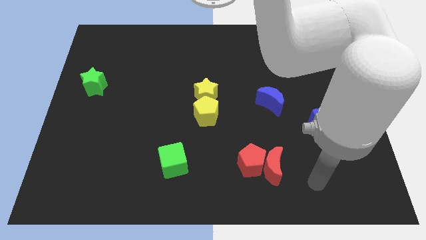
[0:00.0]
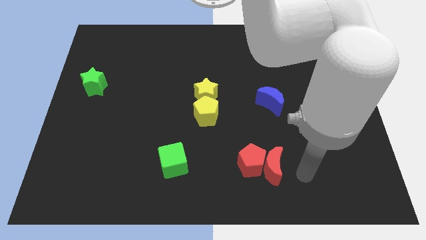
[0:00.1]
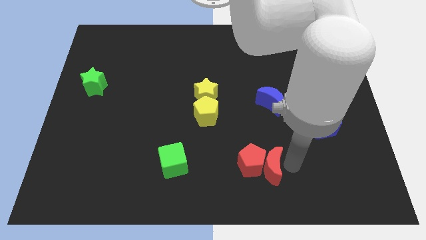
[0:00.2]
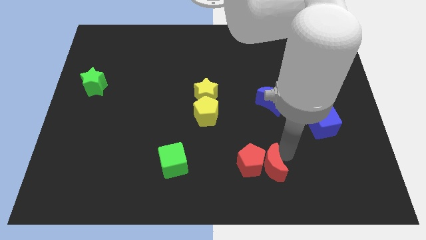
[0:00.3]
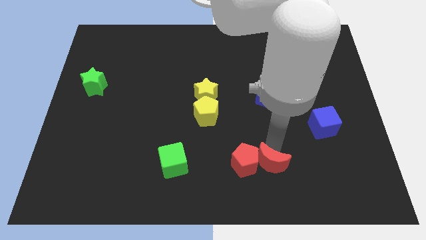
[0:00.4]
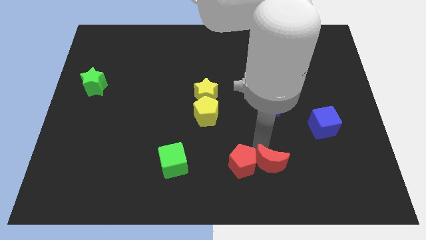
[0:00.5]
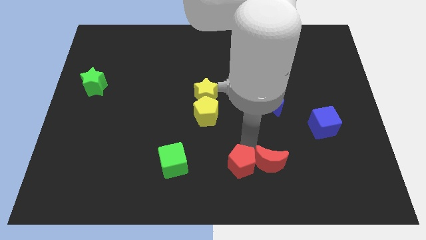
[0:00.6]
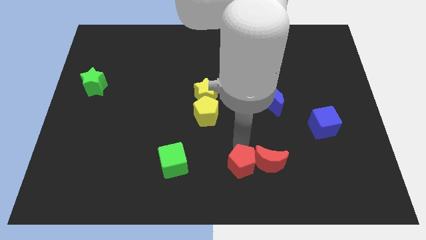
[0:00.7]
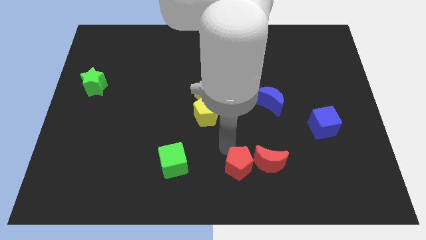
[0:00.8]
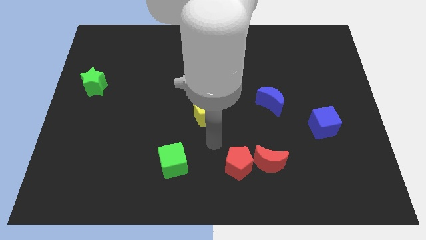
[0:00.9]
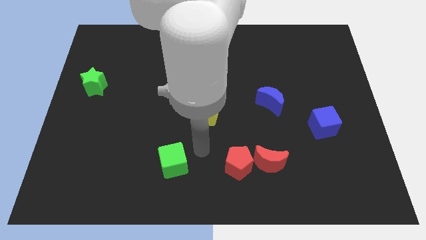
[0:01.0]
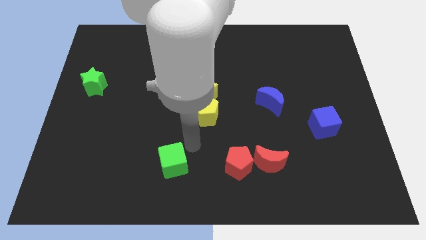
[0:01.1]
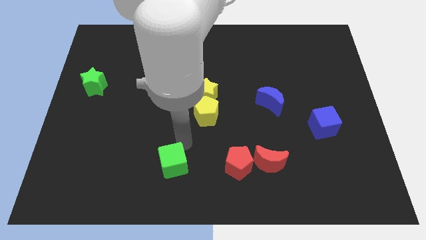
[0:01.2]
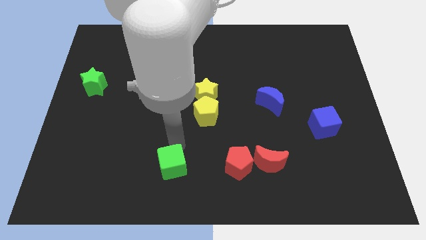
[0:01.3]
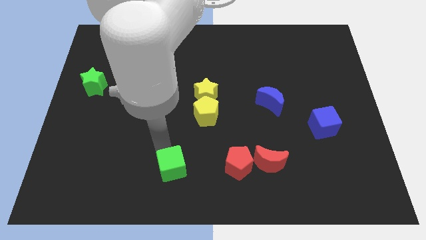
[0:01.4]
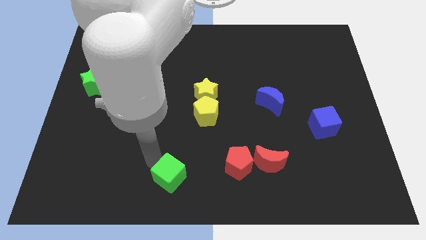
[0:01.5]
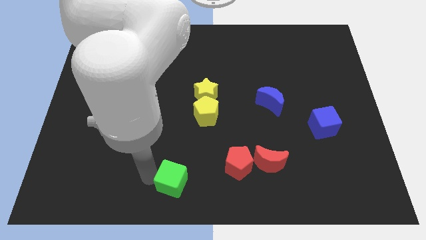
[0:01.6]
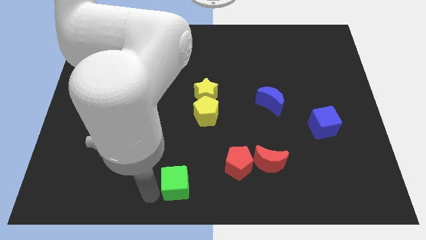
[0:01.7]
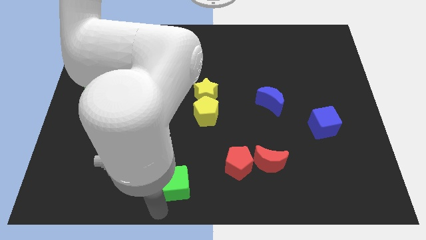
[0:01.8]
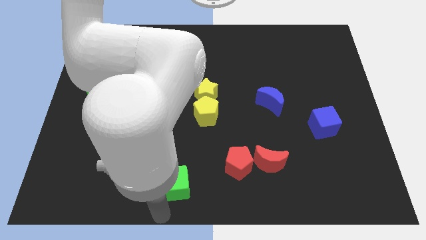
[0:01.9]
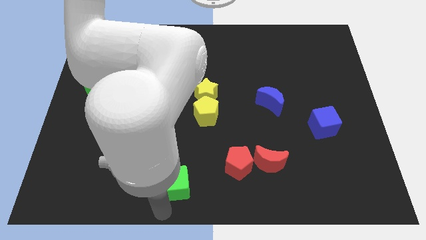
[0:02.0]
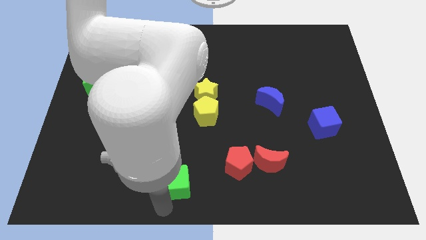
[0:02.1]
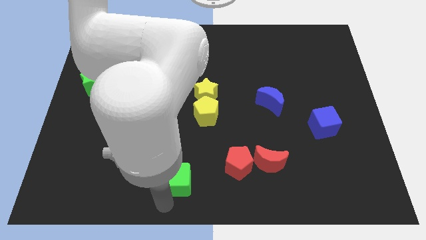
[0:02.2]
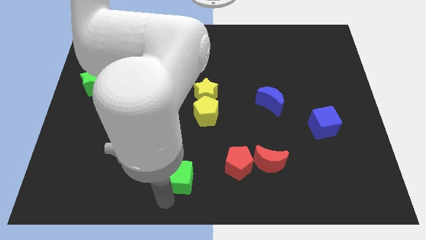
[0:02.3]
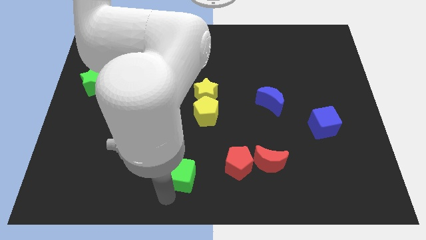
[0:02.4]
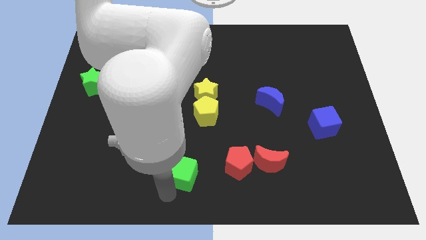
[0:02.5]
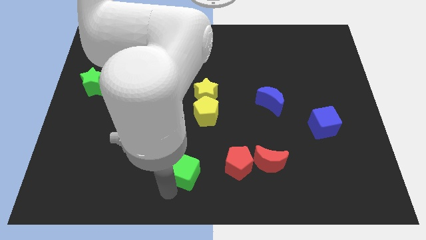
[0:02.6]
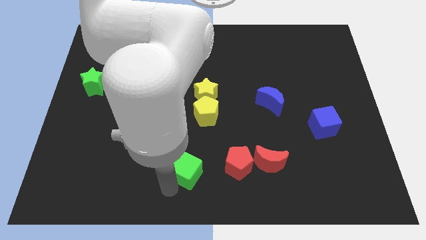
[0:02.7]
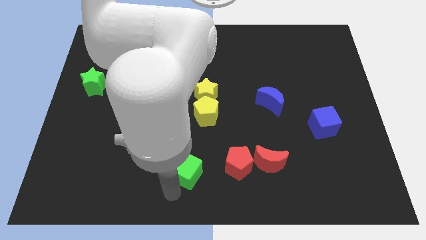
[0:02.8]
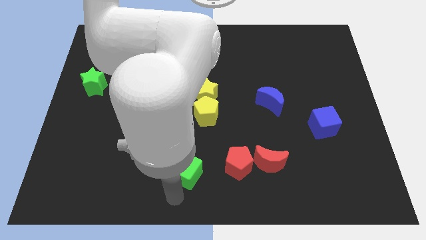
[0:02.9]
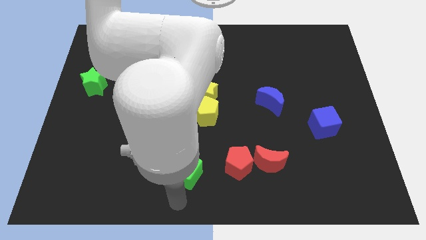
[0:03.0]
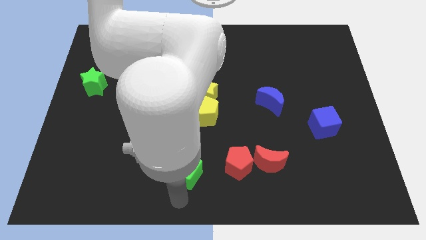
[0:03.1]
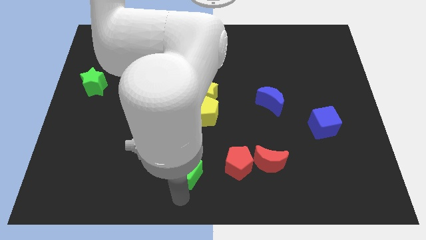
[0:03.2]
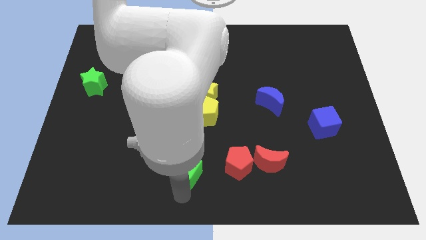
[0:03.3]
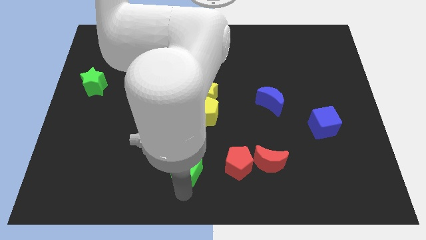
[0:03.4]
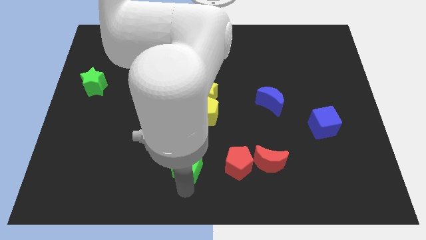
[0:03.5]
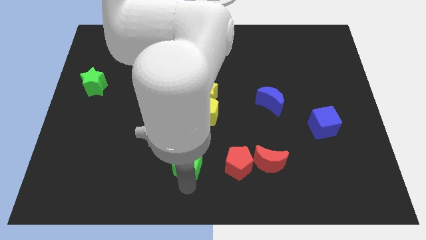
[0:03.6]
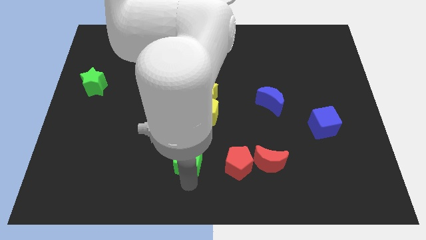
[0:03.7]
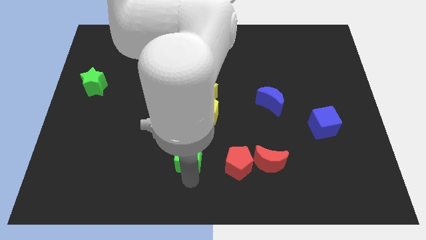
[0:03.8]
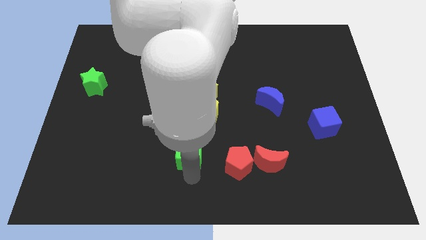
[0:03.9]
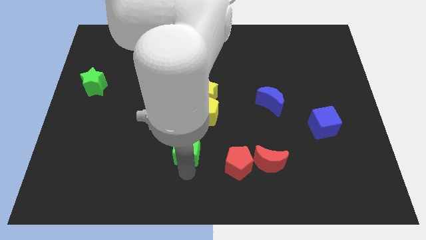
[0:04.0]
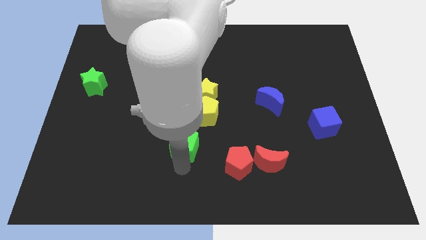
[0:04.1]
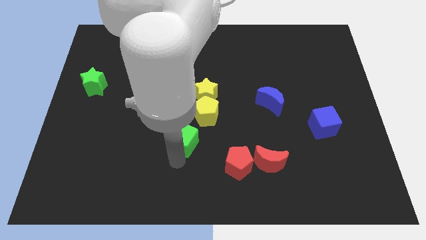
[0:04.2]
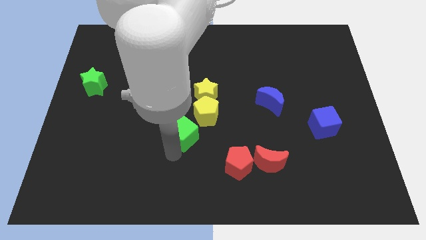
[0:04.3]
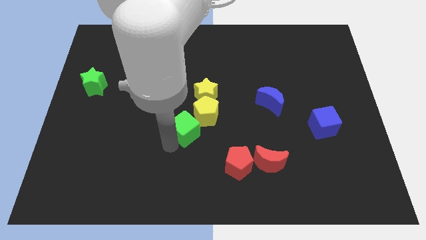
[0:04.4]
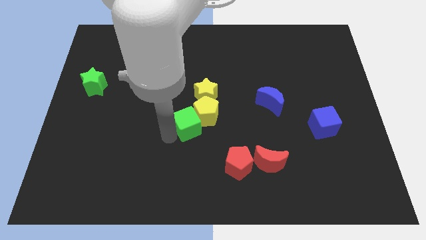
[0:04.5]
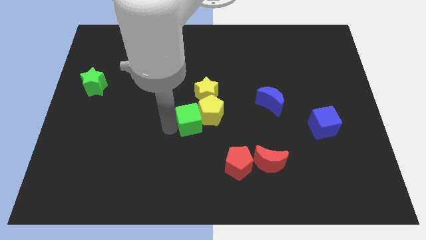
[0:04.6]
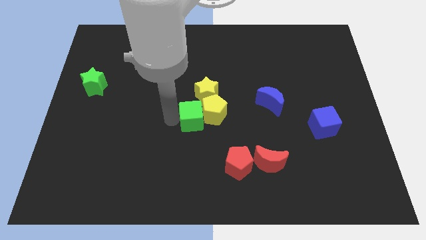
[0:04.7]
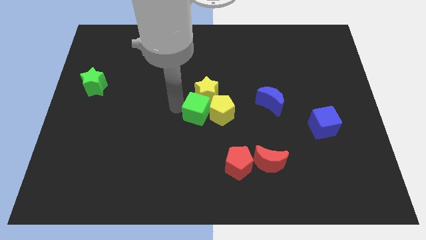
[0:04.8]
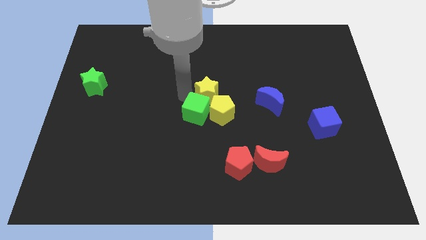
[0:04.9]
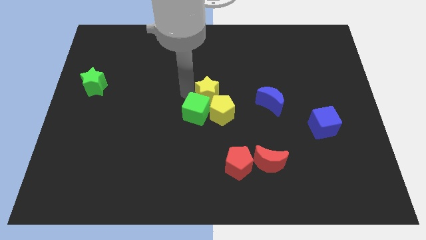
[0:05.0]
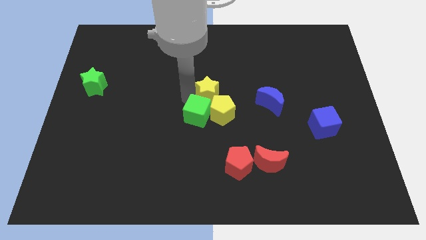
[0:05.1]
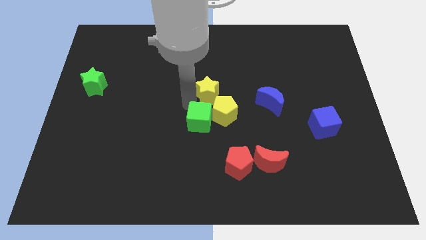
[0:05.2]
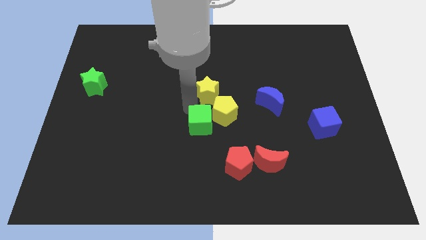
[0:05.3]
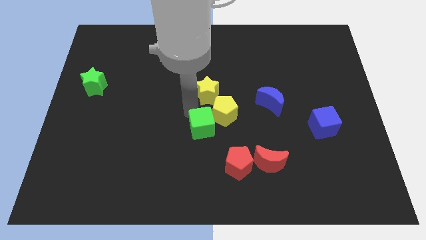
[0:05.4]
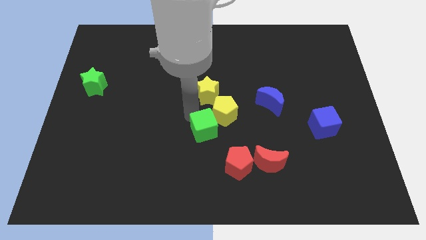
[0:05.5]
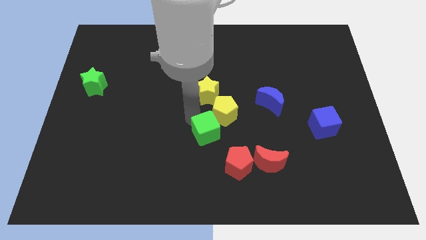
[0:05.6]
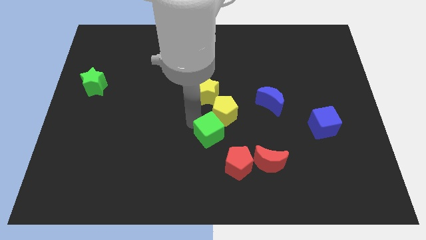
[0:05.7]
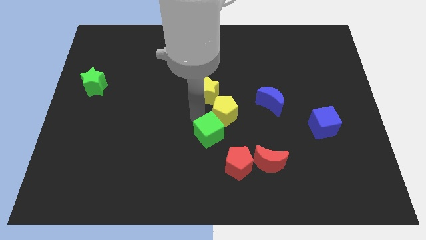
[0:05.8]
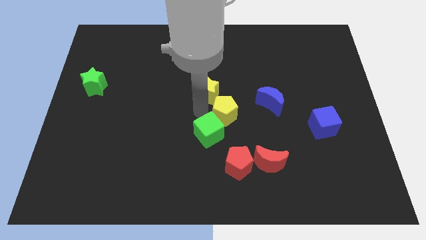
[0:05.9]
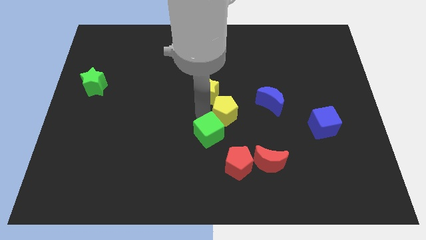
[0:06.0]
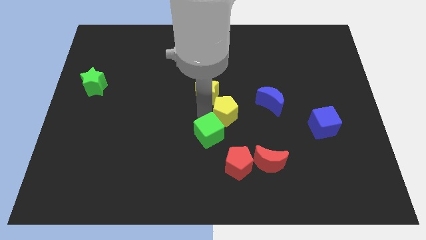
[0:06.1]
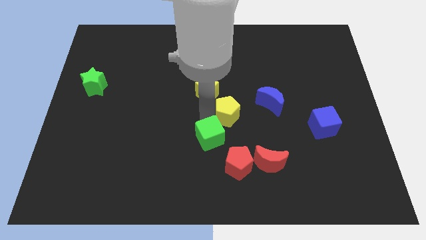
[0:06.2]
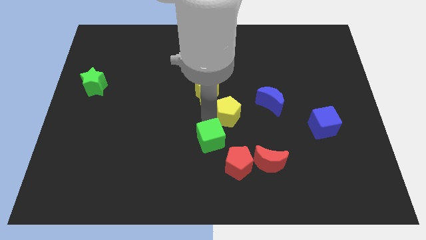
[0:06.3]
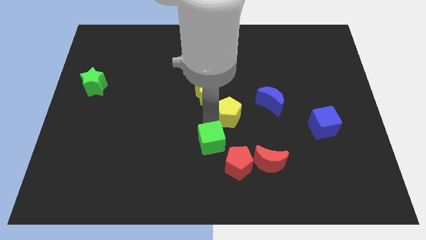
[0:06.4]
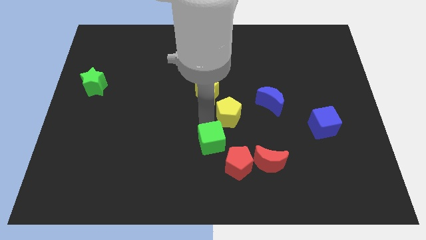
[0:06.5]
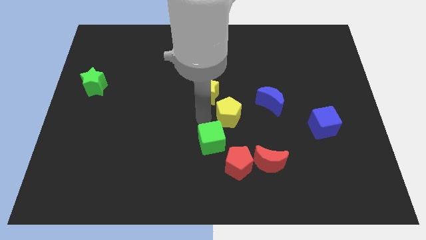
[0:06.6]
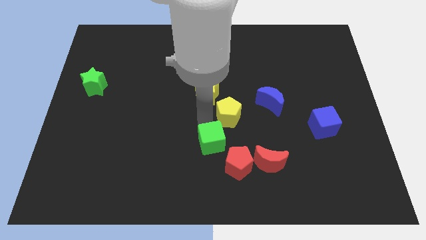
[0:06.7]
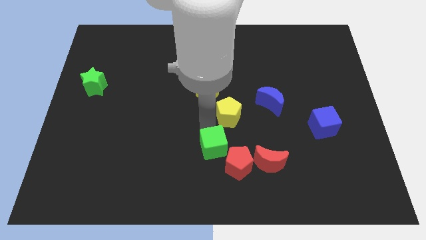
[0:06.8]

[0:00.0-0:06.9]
slide the green cube to the left of the red moon
